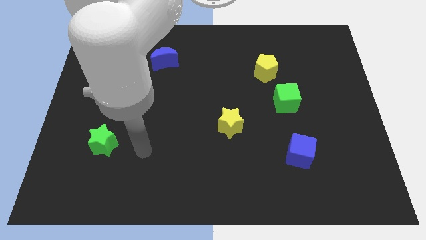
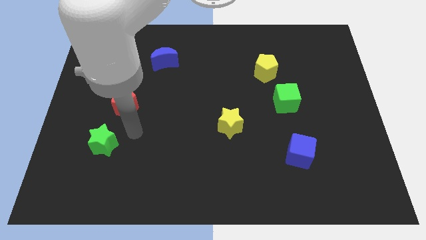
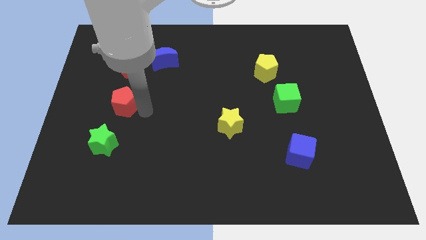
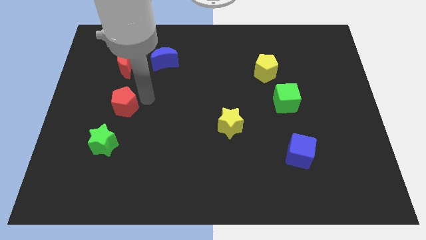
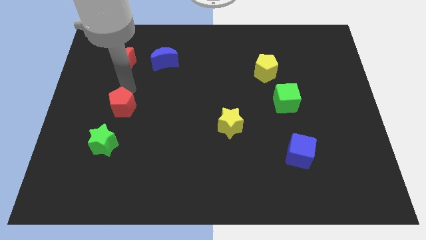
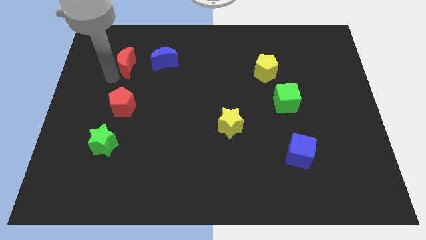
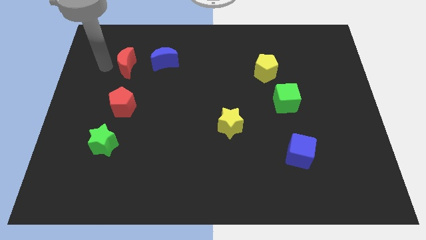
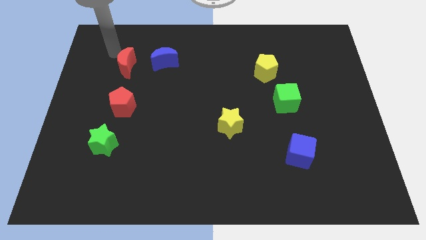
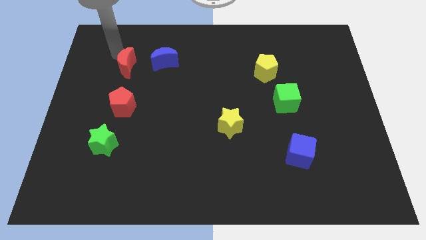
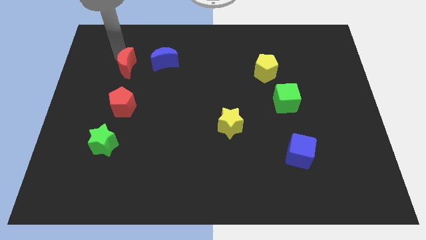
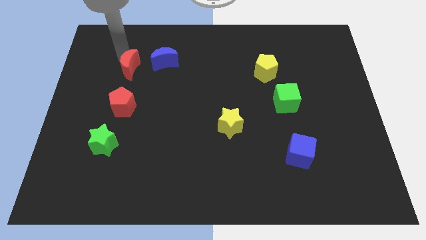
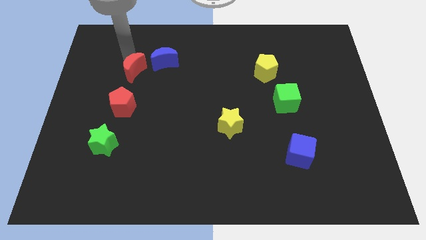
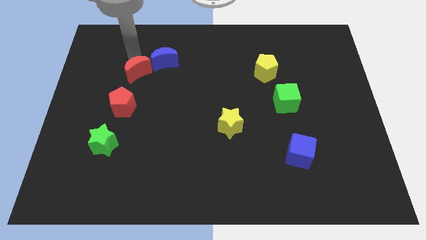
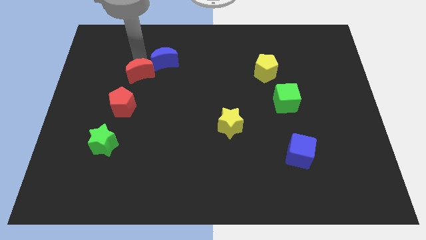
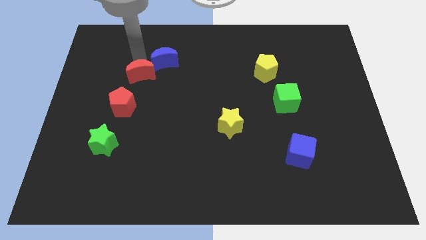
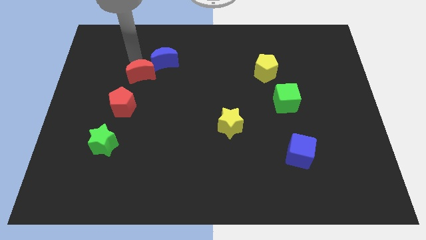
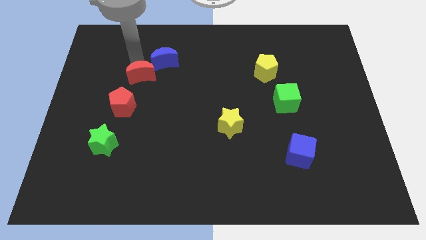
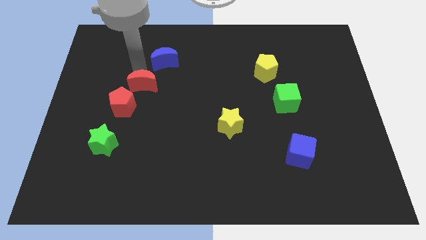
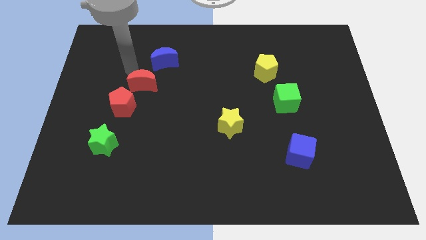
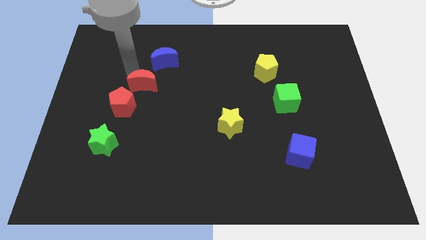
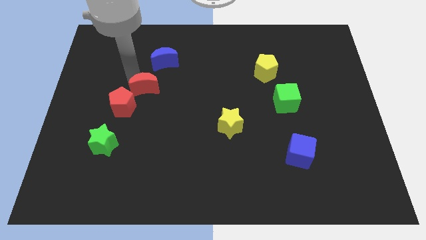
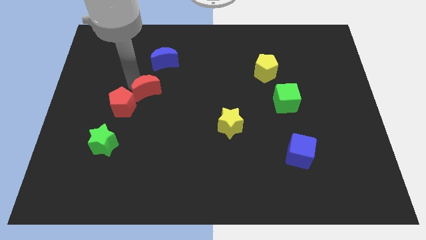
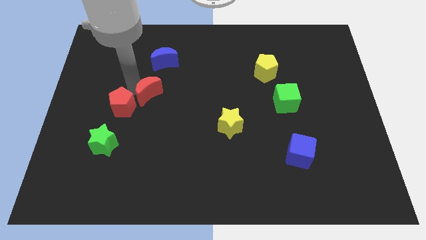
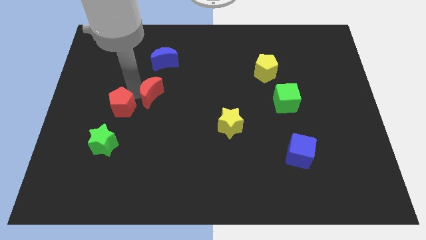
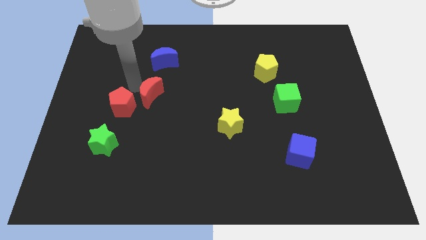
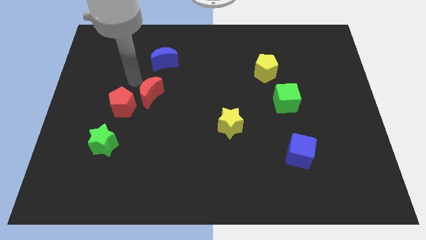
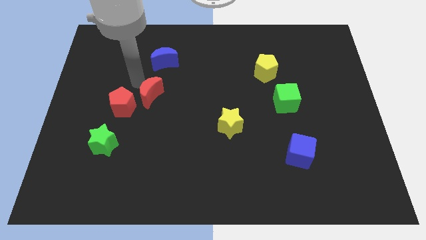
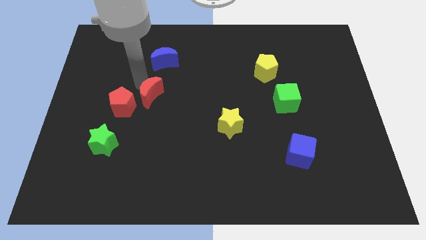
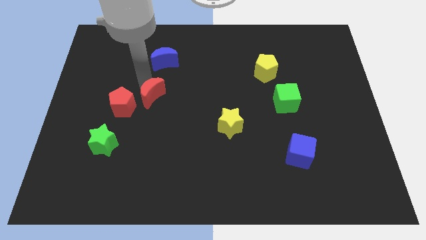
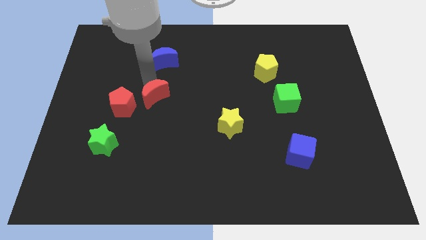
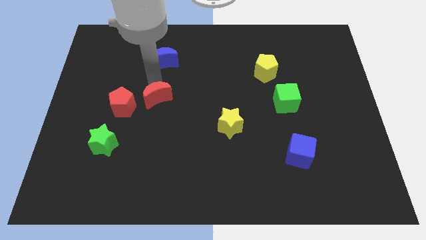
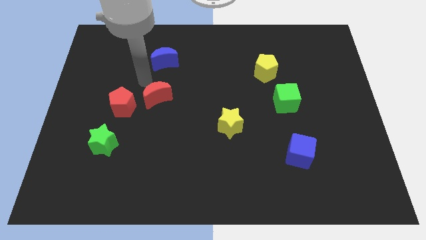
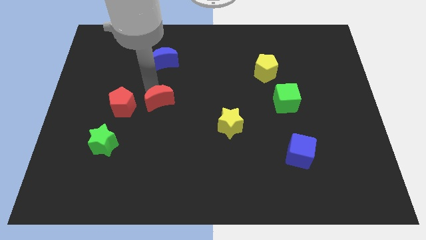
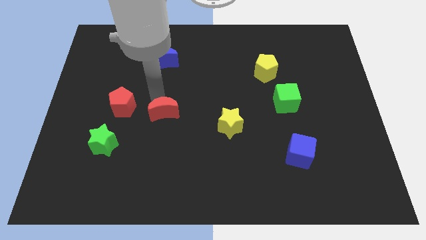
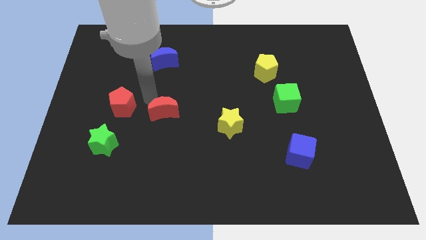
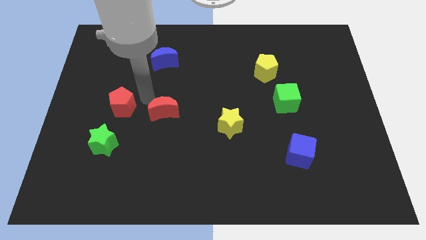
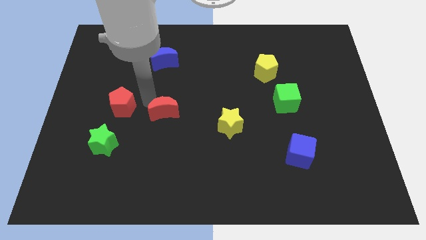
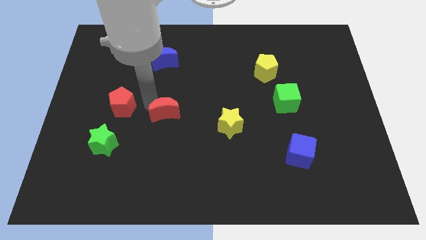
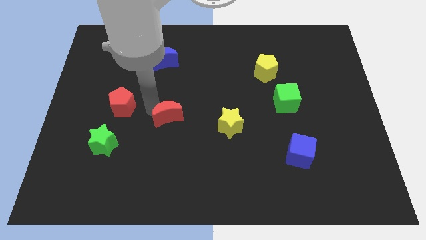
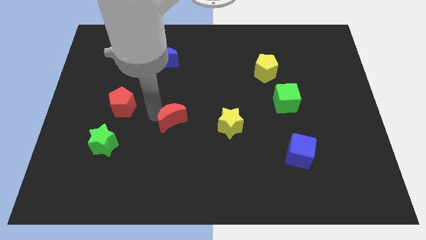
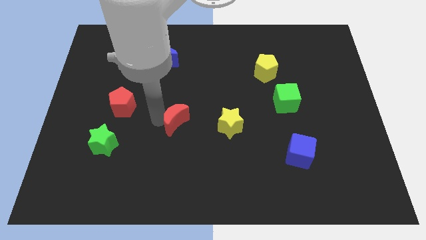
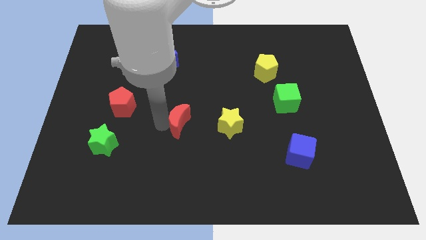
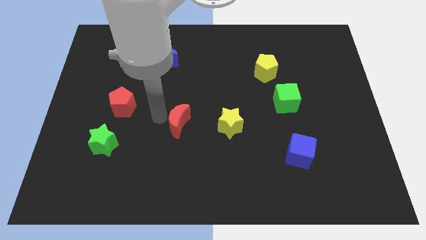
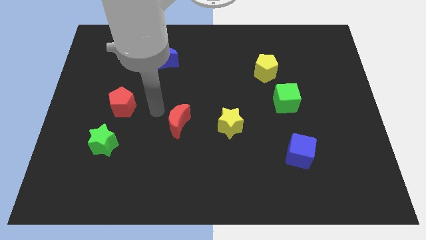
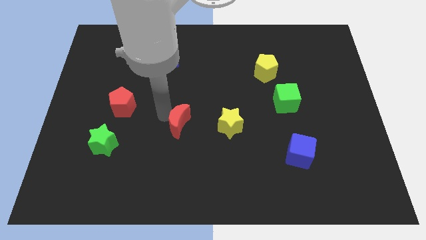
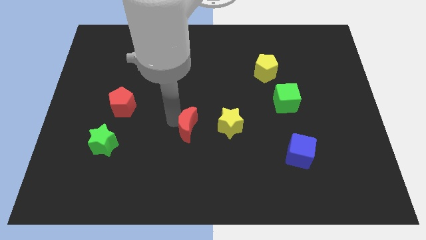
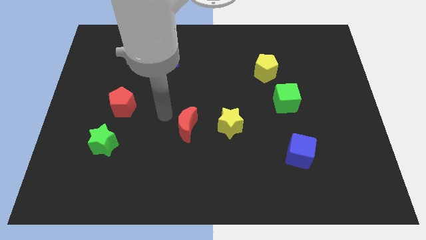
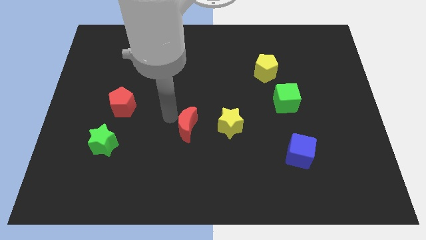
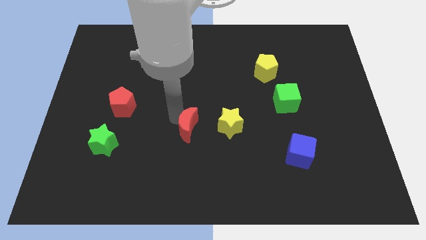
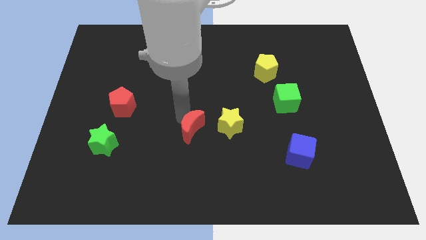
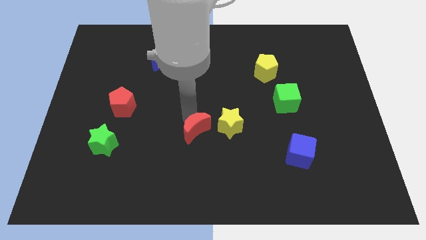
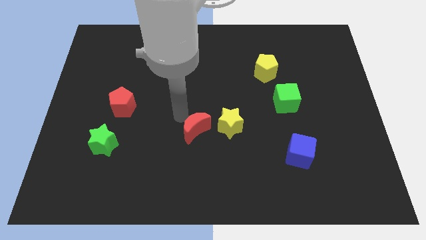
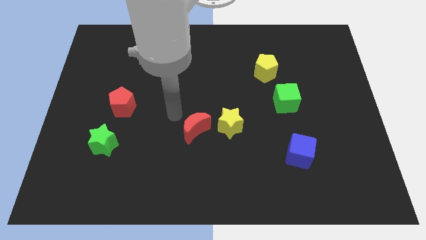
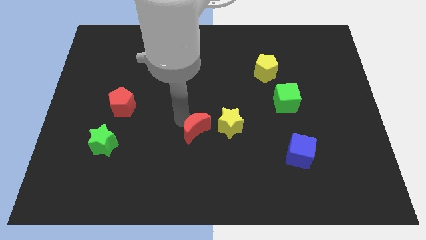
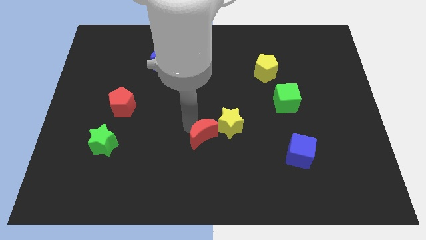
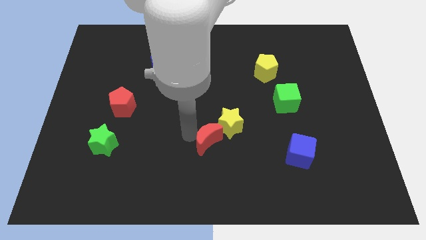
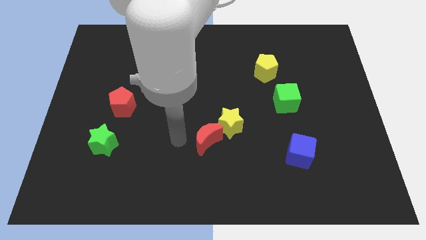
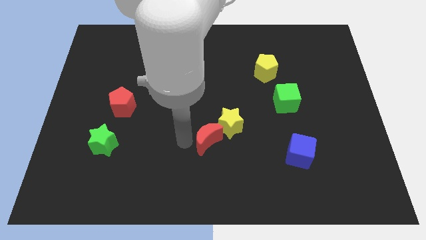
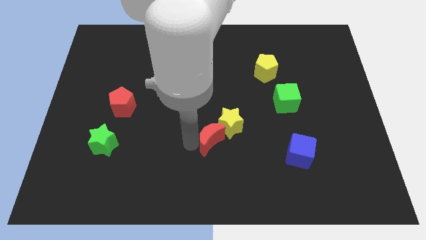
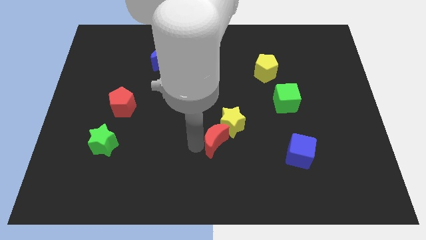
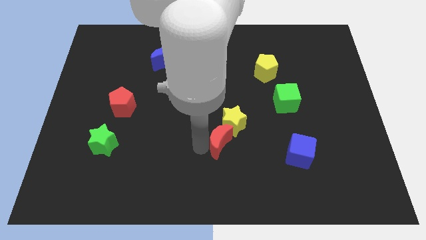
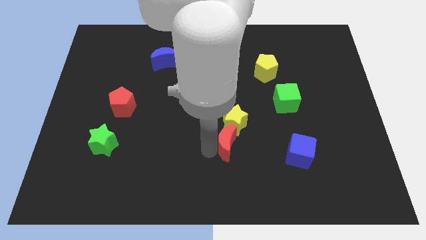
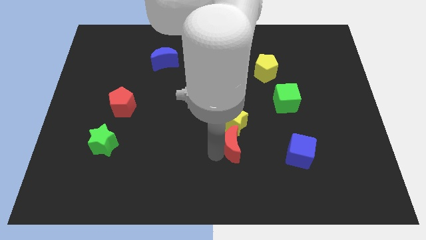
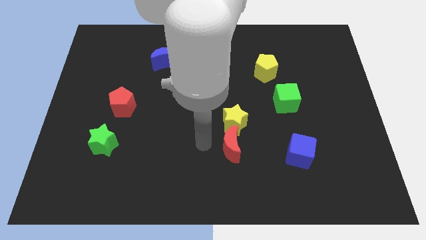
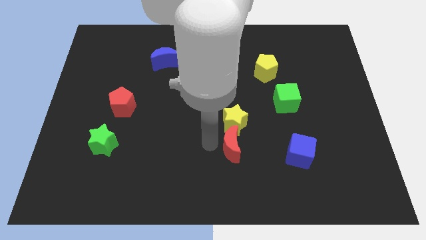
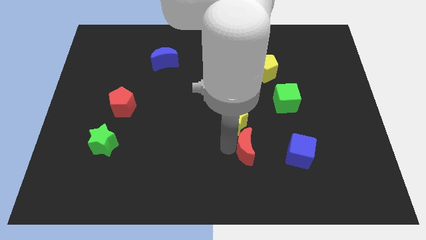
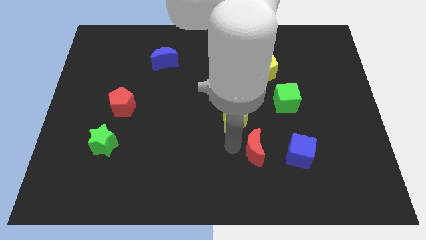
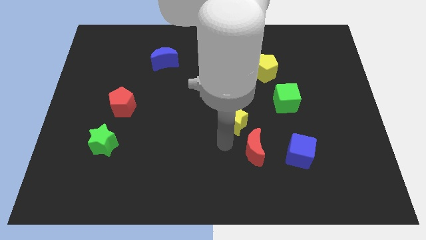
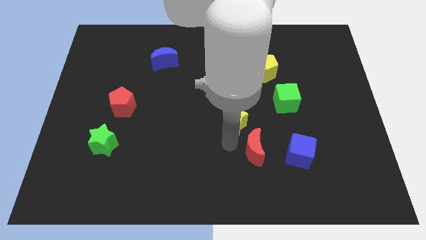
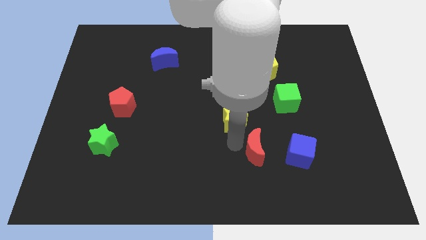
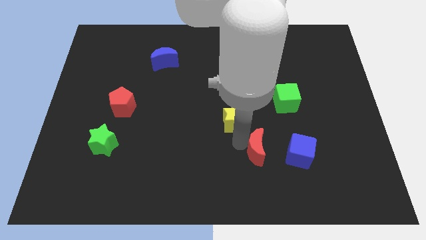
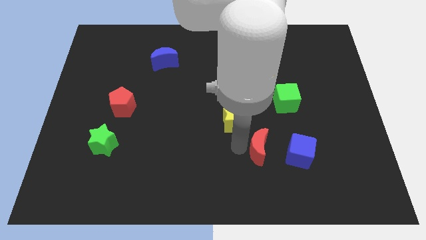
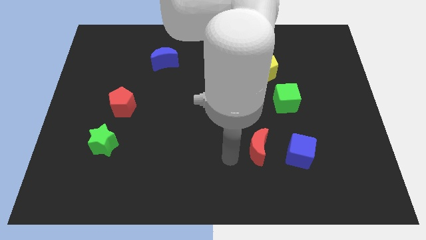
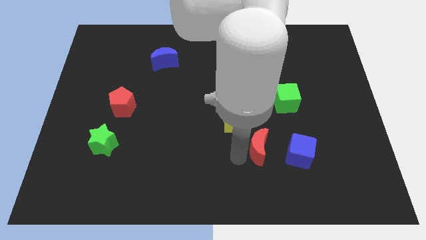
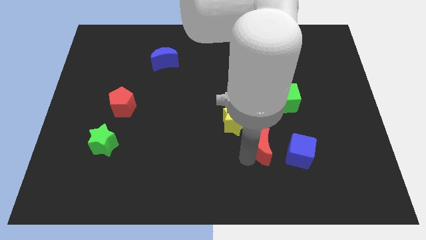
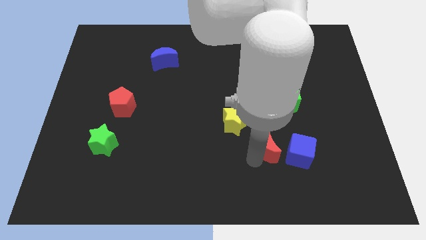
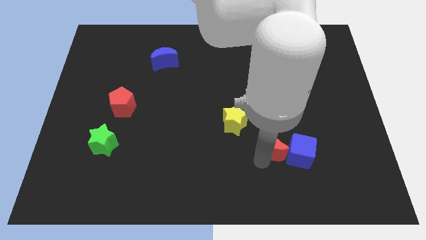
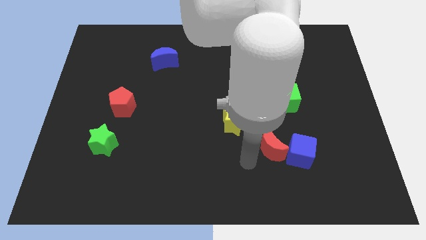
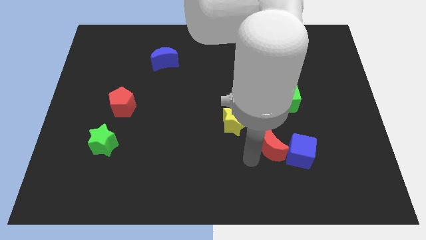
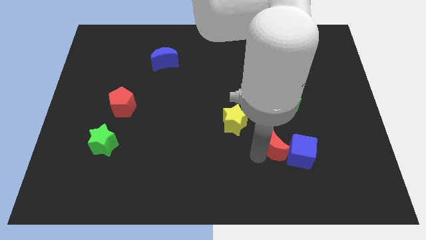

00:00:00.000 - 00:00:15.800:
slide the red moon to the bottom of the green cube
